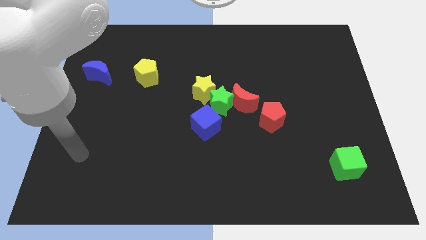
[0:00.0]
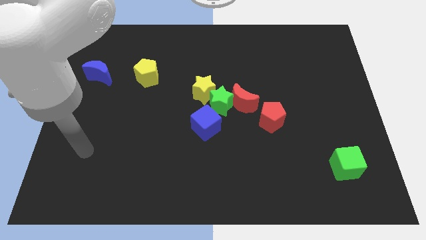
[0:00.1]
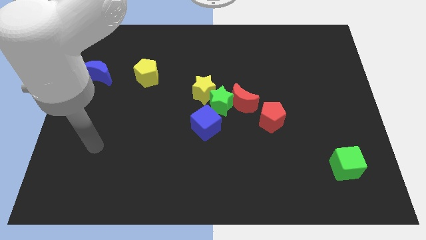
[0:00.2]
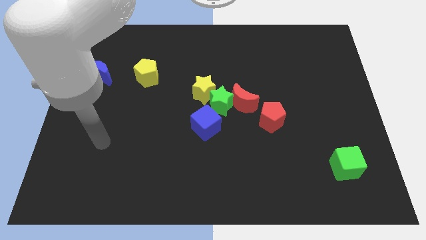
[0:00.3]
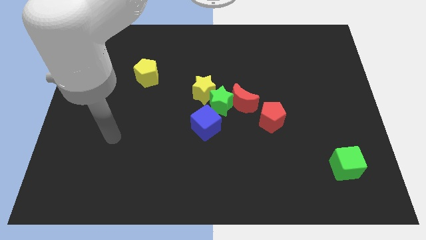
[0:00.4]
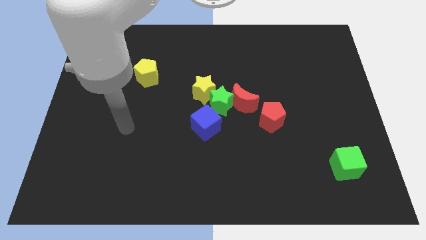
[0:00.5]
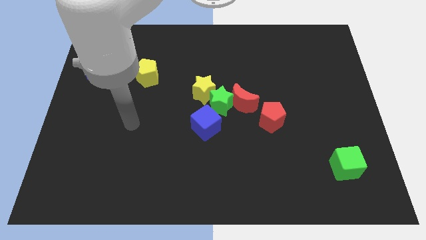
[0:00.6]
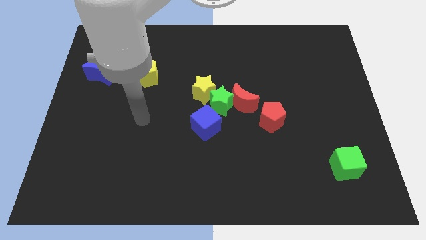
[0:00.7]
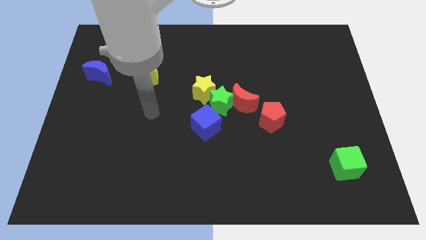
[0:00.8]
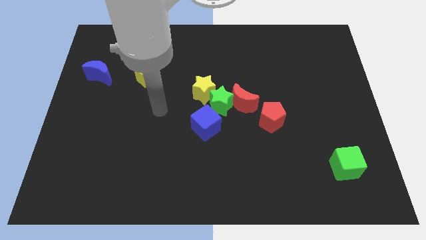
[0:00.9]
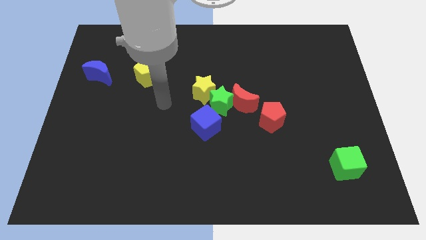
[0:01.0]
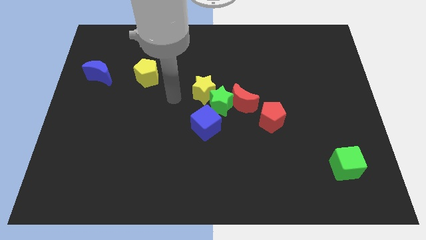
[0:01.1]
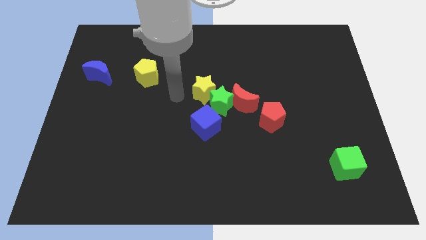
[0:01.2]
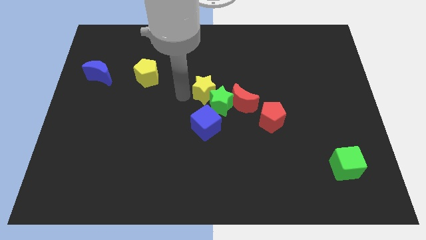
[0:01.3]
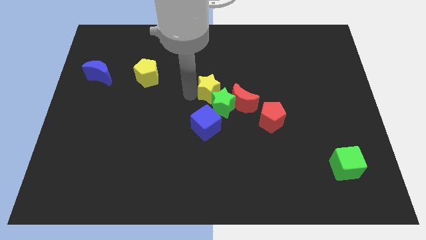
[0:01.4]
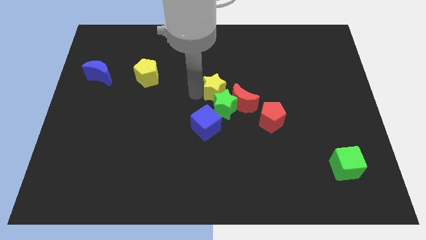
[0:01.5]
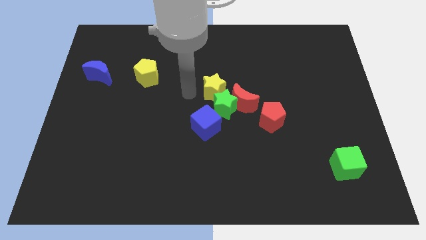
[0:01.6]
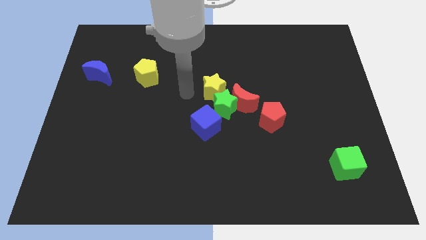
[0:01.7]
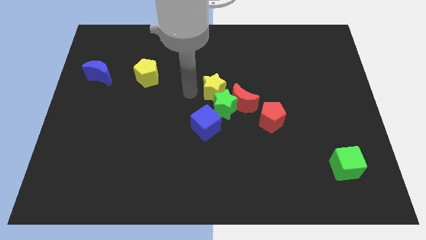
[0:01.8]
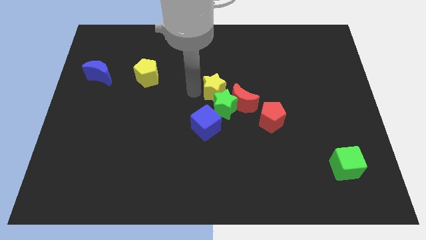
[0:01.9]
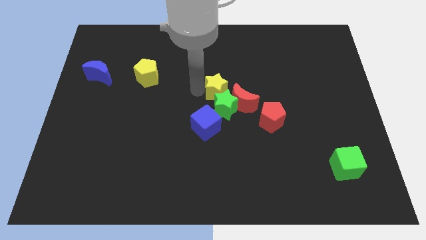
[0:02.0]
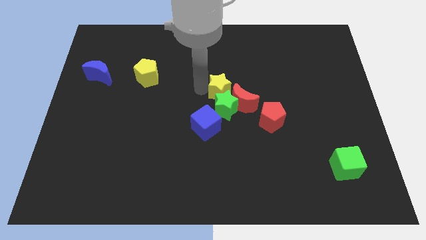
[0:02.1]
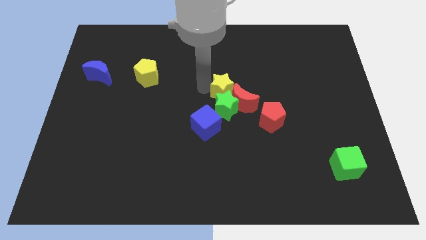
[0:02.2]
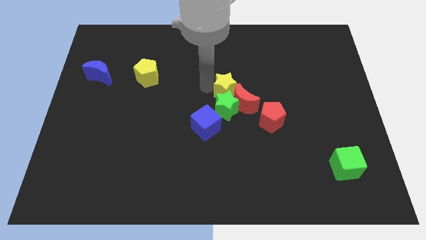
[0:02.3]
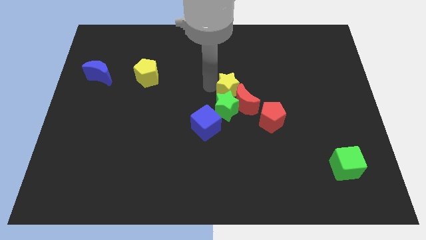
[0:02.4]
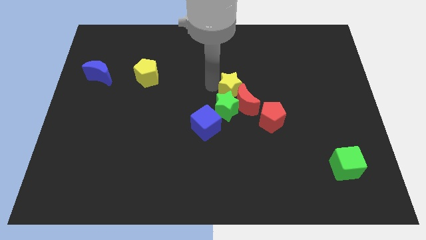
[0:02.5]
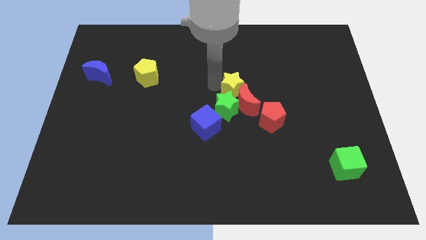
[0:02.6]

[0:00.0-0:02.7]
push the yellow star a little bit right

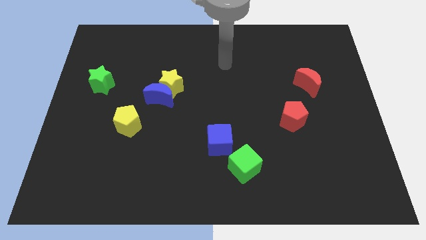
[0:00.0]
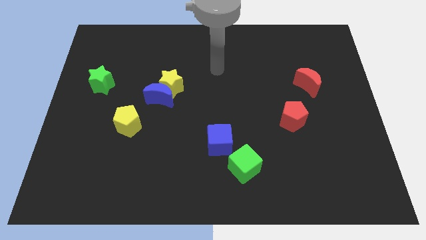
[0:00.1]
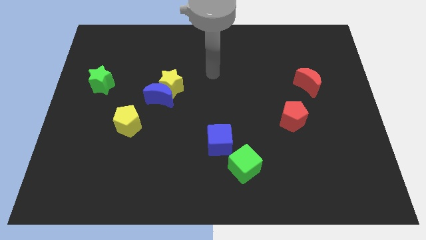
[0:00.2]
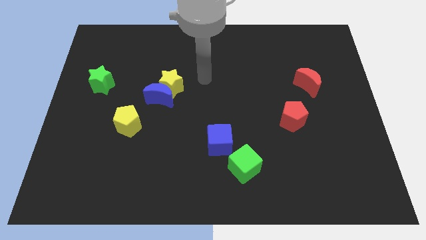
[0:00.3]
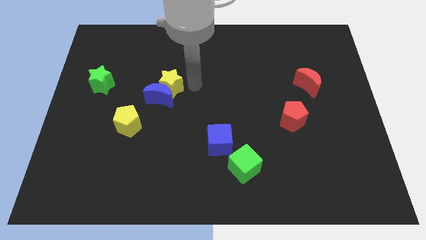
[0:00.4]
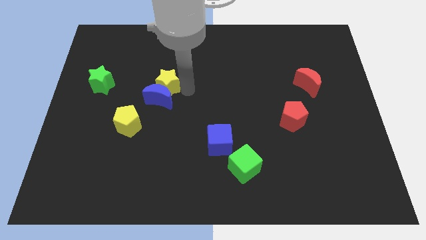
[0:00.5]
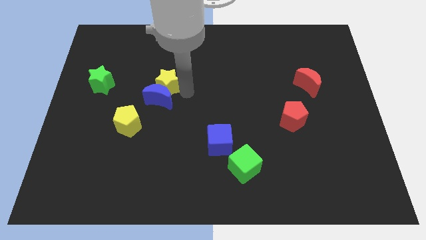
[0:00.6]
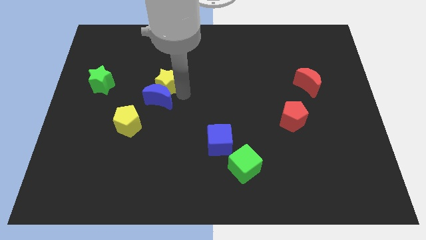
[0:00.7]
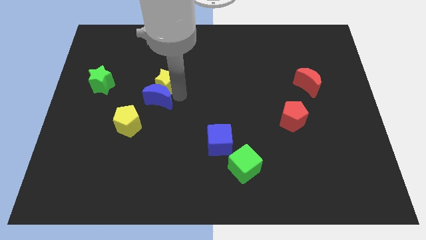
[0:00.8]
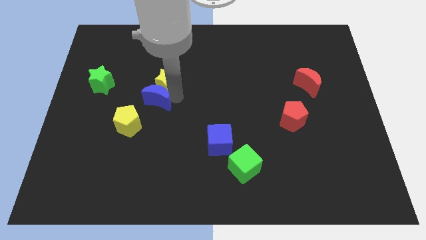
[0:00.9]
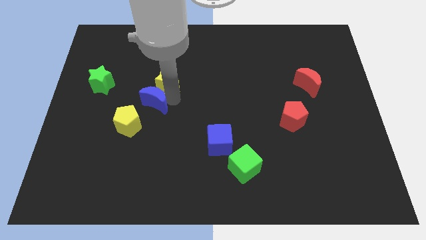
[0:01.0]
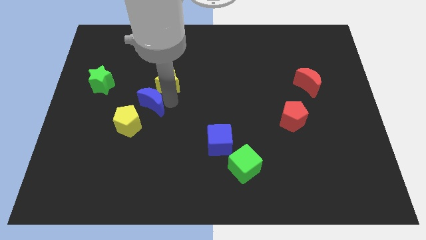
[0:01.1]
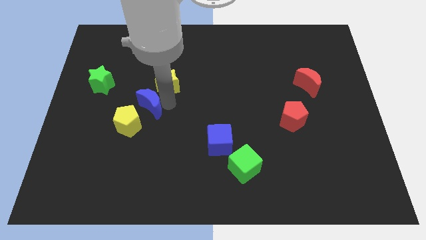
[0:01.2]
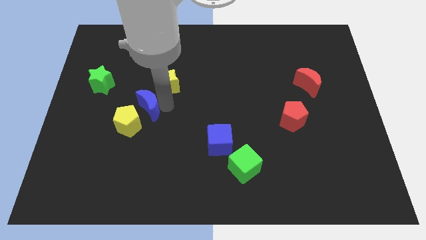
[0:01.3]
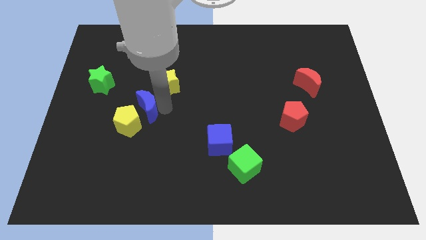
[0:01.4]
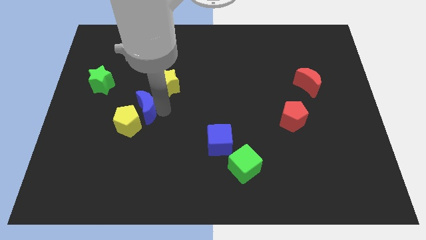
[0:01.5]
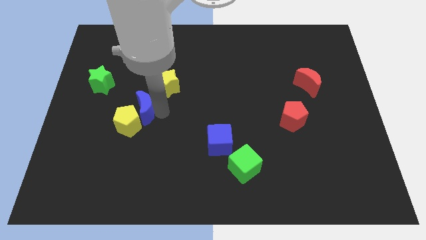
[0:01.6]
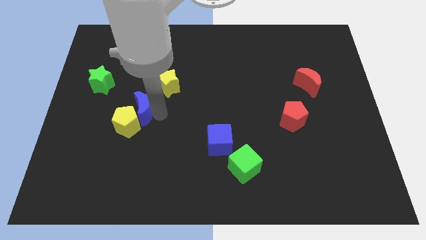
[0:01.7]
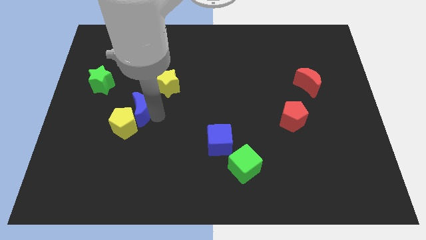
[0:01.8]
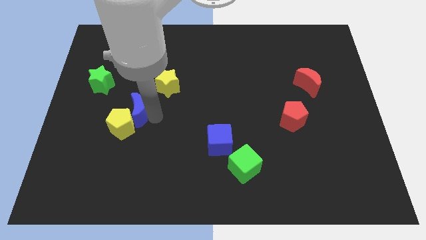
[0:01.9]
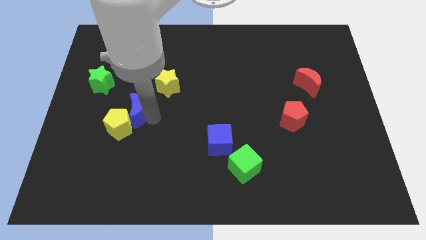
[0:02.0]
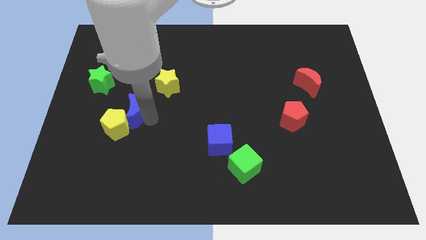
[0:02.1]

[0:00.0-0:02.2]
move the blue moon diagonally down and to the left a little

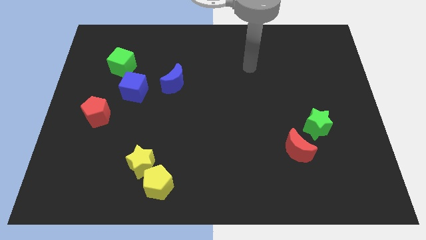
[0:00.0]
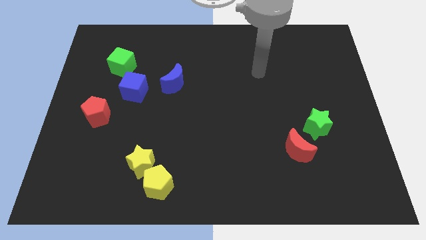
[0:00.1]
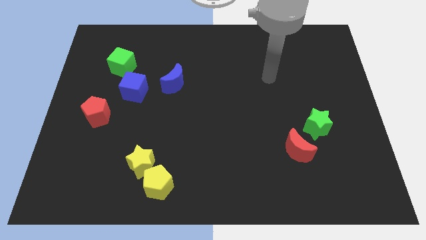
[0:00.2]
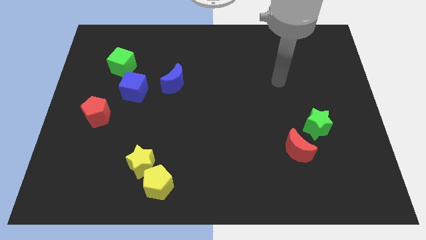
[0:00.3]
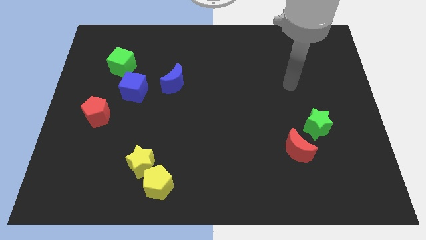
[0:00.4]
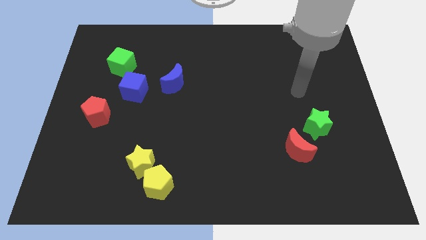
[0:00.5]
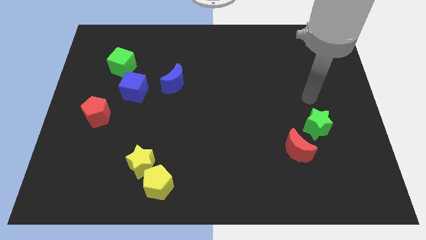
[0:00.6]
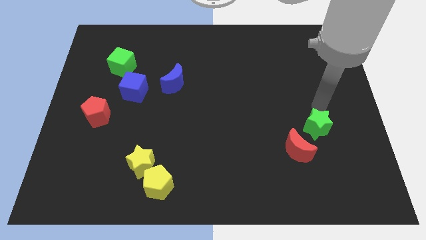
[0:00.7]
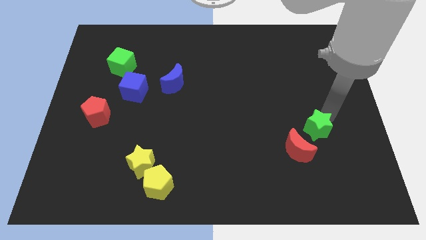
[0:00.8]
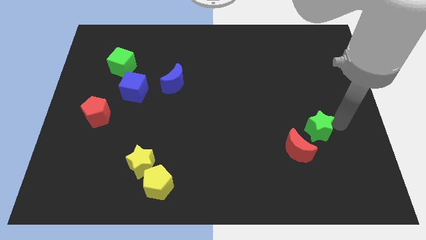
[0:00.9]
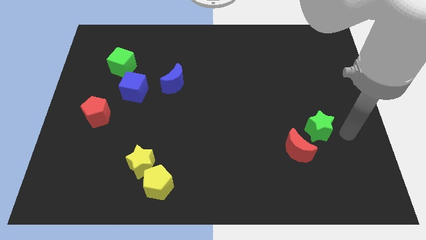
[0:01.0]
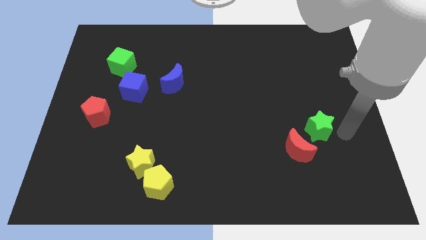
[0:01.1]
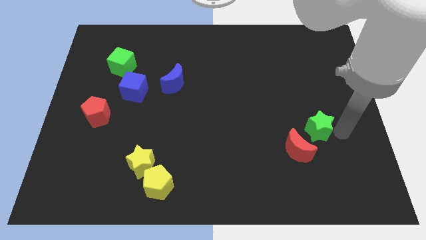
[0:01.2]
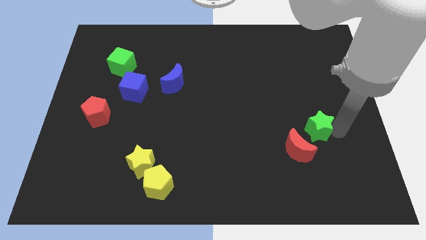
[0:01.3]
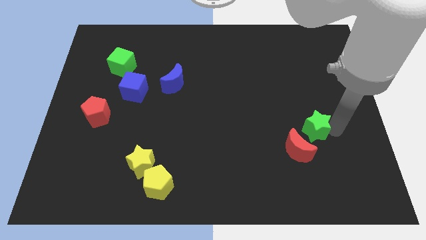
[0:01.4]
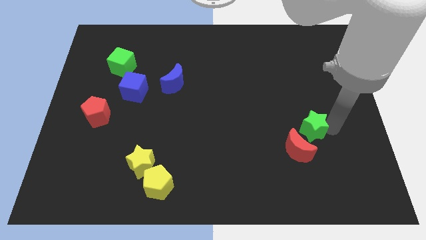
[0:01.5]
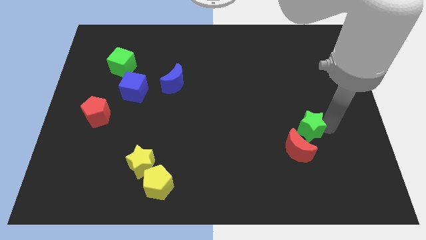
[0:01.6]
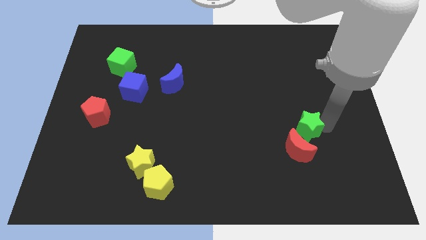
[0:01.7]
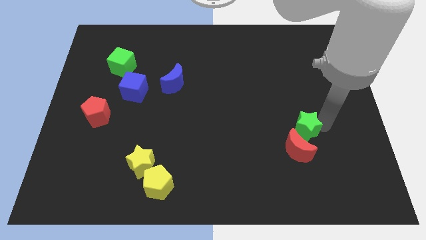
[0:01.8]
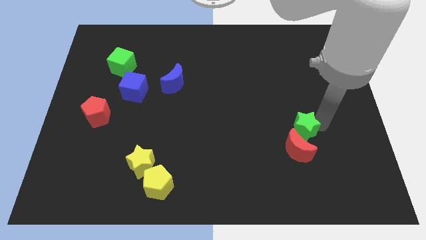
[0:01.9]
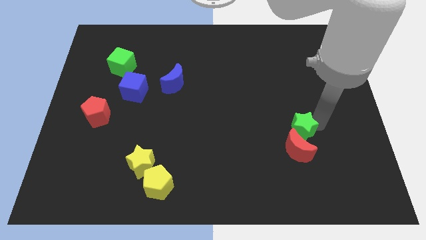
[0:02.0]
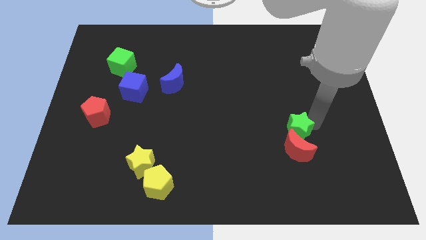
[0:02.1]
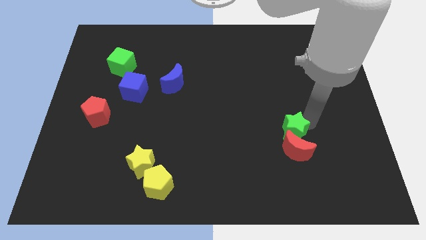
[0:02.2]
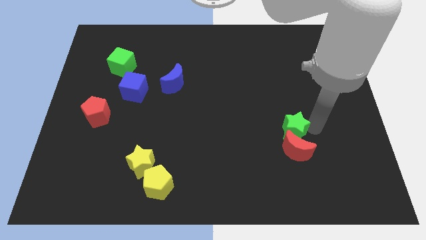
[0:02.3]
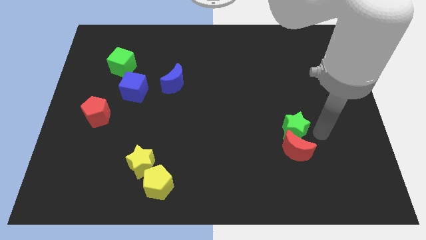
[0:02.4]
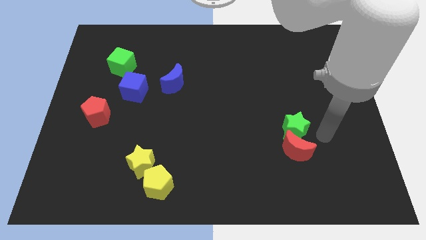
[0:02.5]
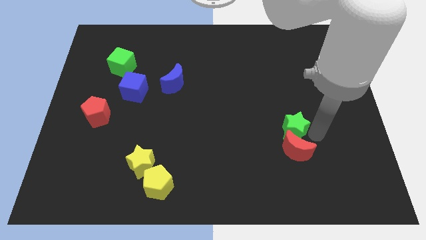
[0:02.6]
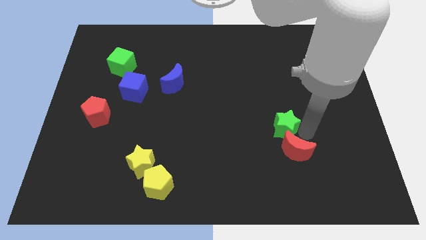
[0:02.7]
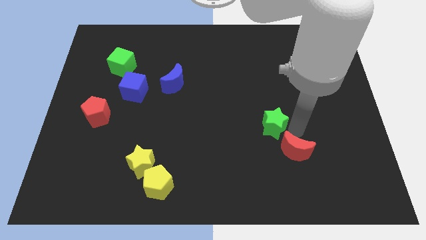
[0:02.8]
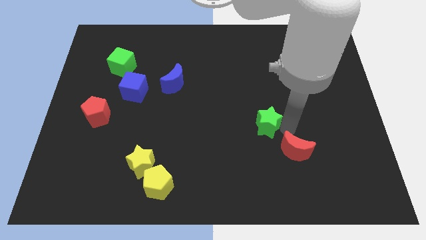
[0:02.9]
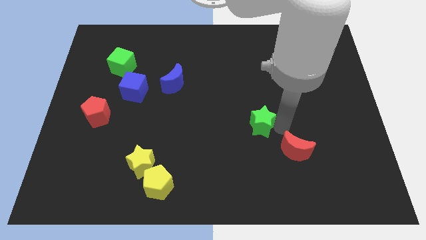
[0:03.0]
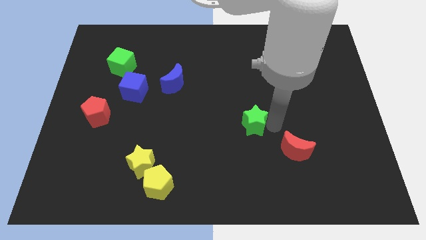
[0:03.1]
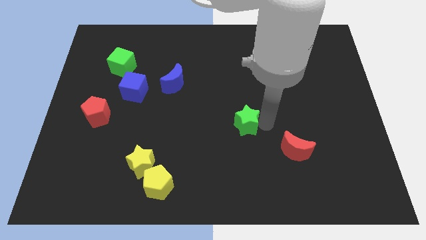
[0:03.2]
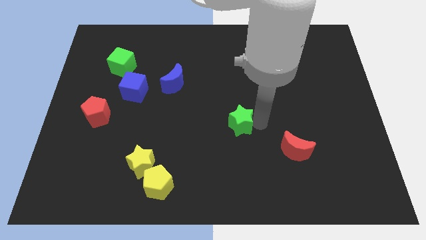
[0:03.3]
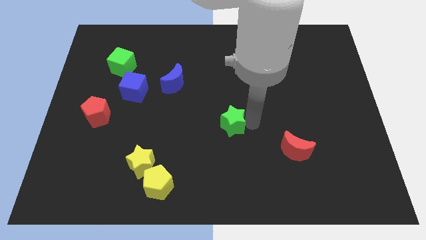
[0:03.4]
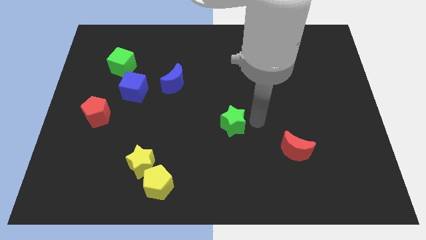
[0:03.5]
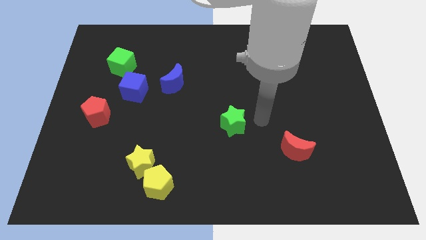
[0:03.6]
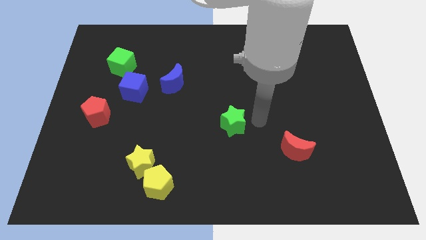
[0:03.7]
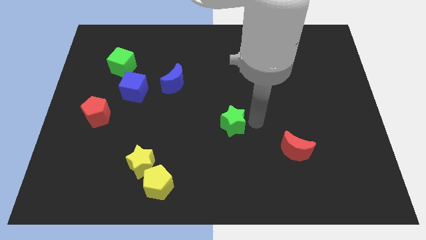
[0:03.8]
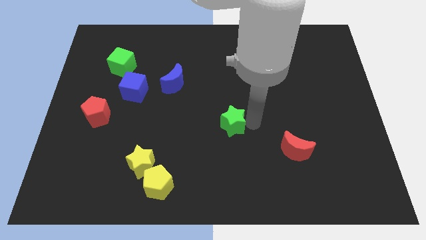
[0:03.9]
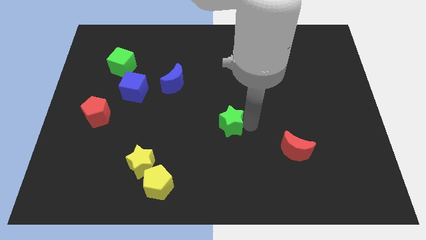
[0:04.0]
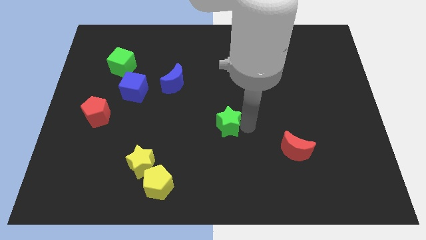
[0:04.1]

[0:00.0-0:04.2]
move the green star to the left
